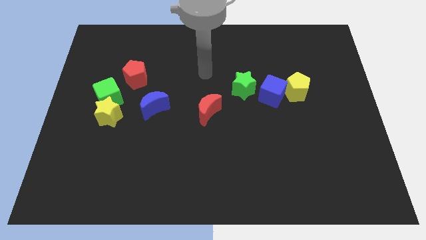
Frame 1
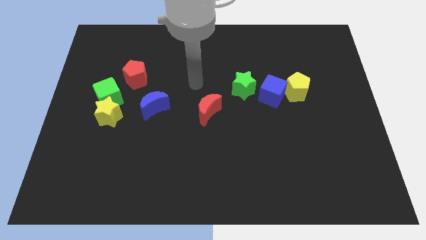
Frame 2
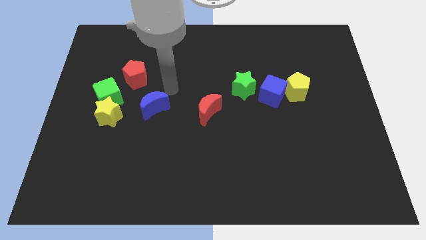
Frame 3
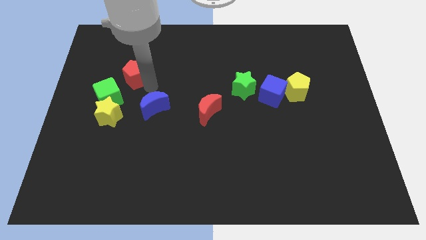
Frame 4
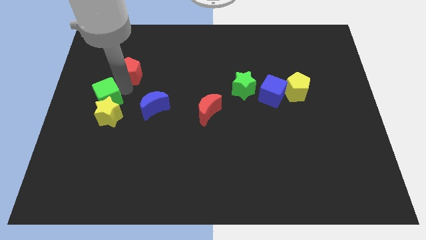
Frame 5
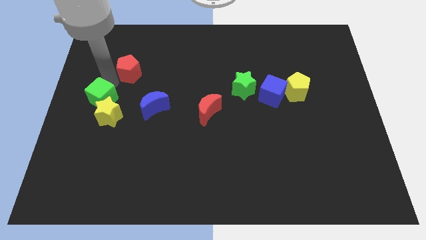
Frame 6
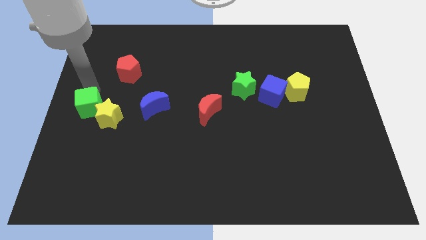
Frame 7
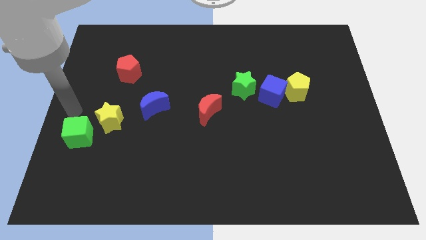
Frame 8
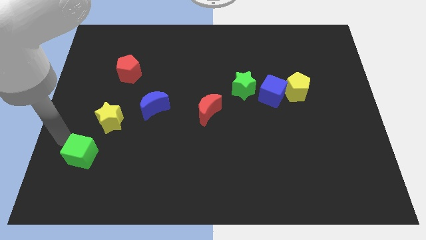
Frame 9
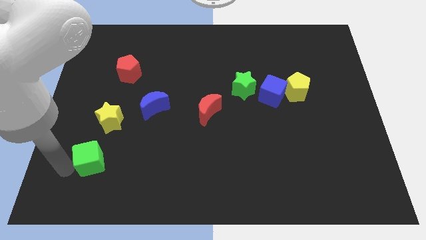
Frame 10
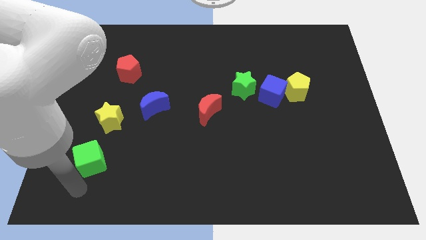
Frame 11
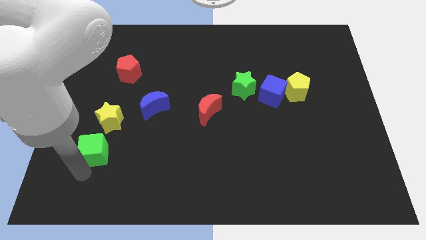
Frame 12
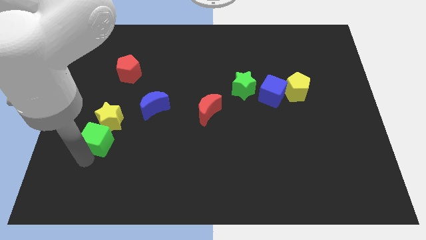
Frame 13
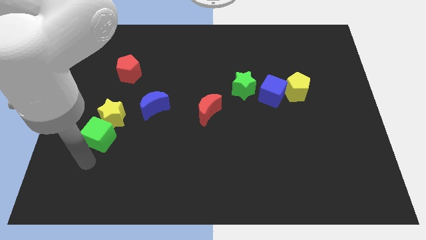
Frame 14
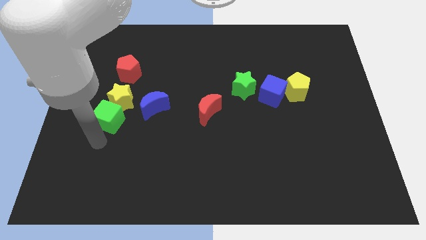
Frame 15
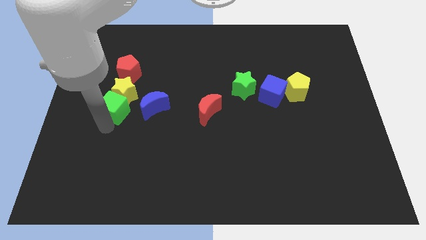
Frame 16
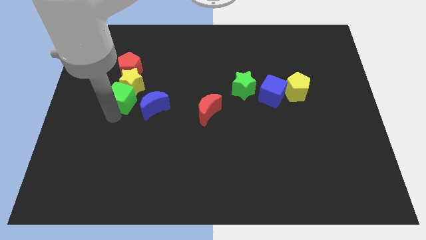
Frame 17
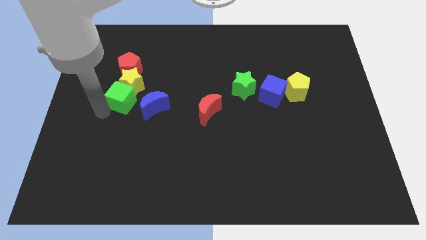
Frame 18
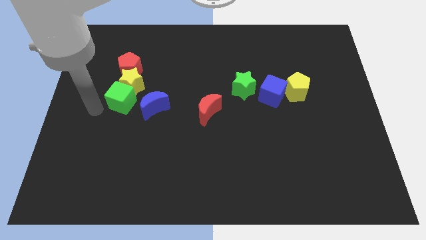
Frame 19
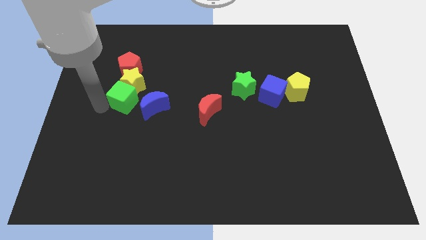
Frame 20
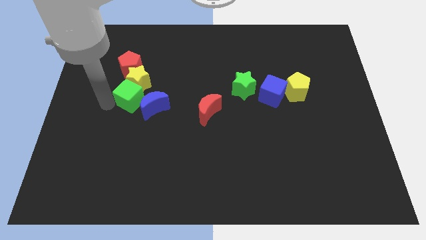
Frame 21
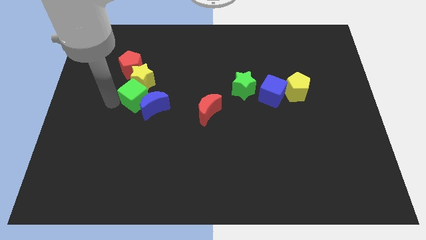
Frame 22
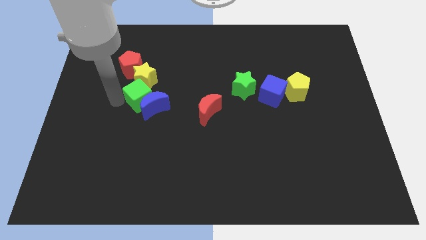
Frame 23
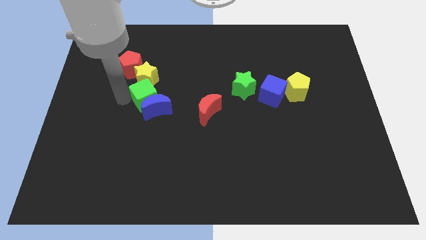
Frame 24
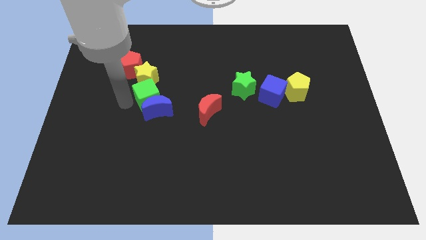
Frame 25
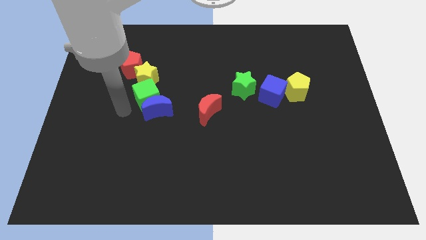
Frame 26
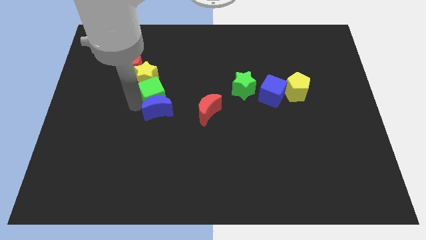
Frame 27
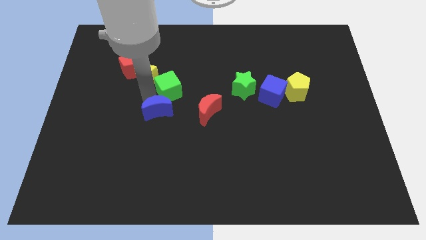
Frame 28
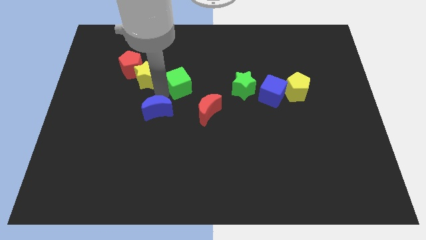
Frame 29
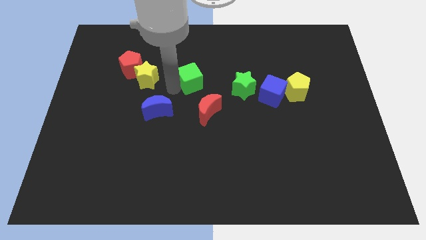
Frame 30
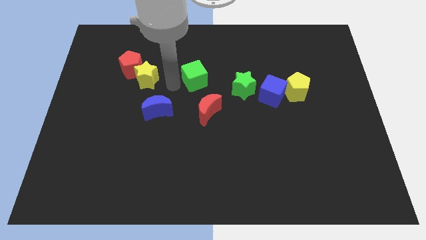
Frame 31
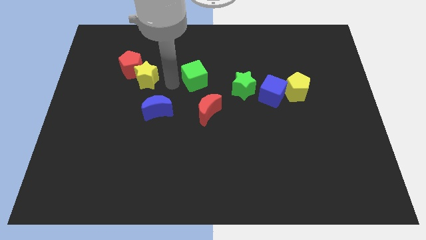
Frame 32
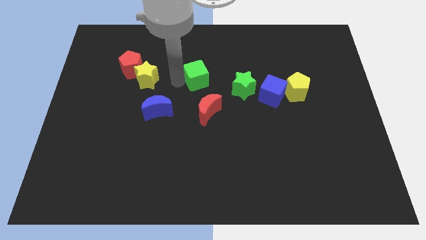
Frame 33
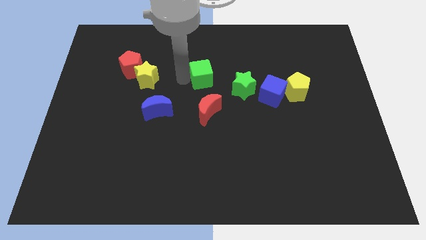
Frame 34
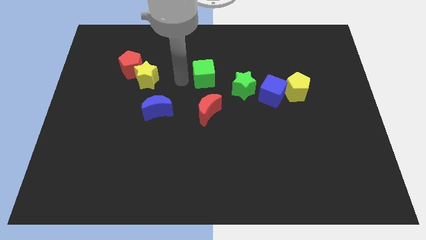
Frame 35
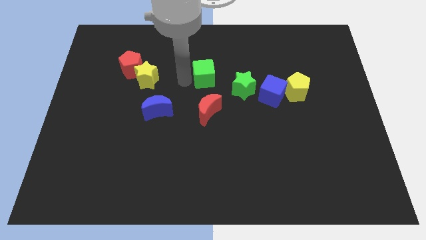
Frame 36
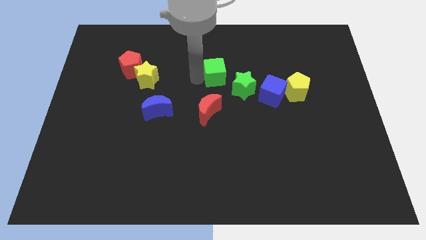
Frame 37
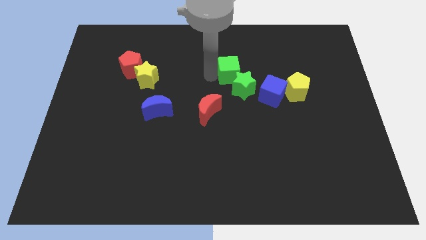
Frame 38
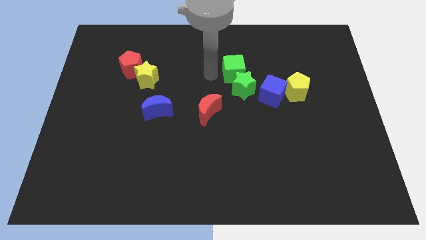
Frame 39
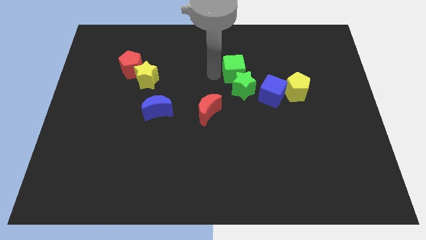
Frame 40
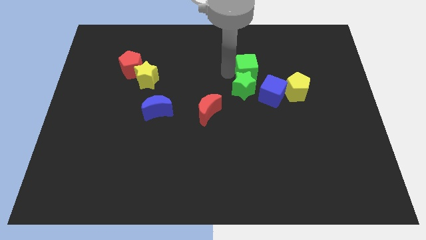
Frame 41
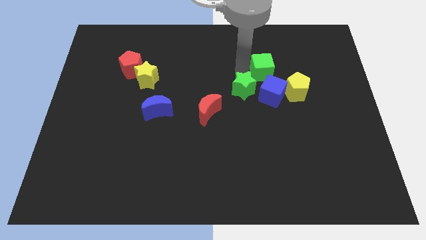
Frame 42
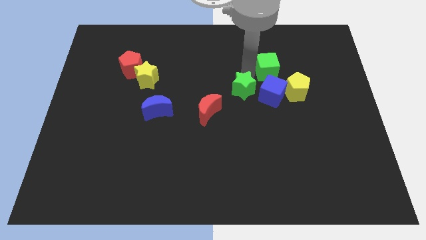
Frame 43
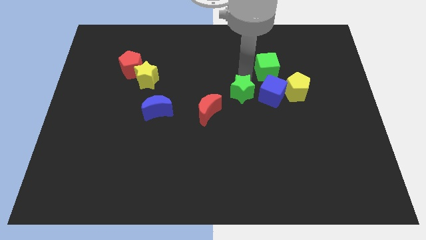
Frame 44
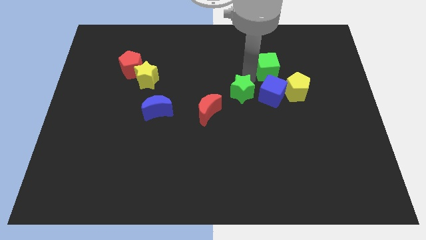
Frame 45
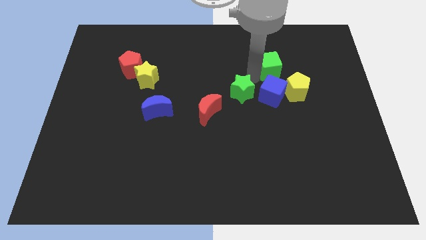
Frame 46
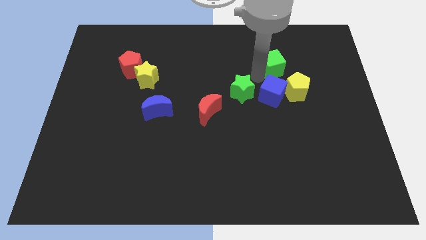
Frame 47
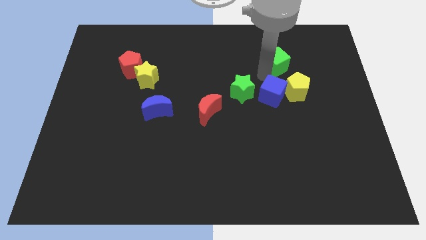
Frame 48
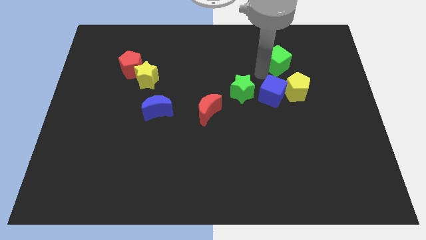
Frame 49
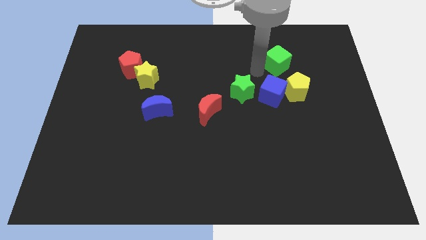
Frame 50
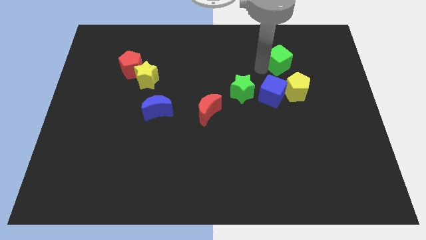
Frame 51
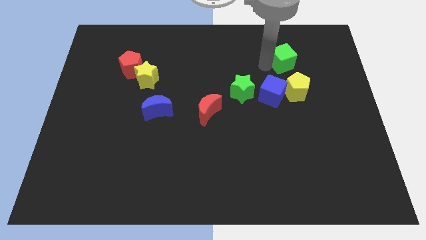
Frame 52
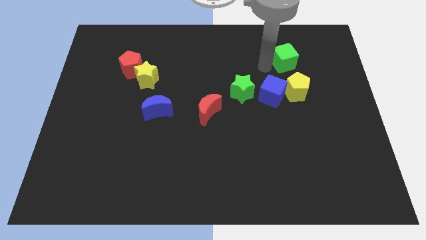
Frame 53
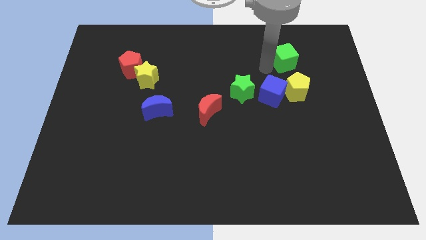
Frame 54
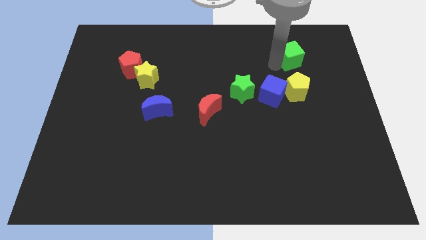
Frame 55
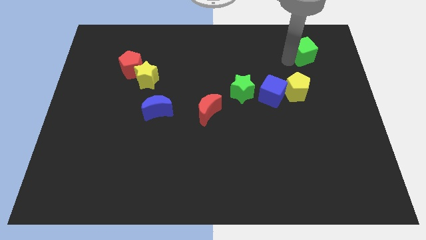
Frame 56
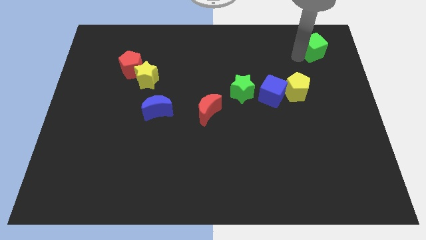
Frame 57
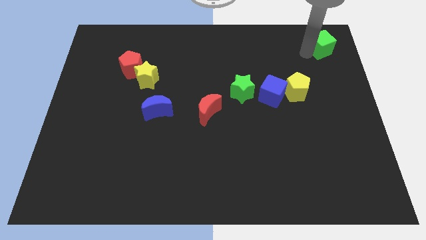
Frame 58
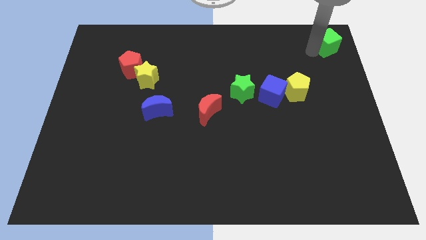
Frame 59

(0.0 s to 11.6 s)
push the green cube to the upper right corner
